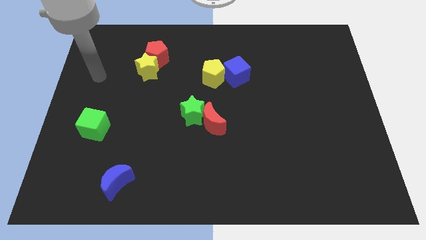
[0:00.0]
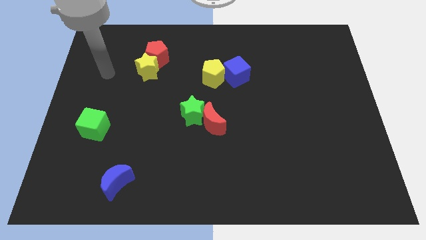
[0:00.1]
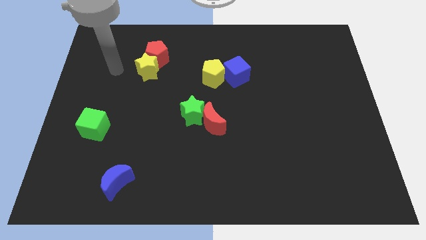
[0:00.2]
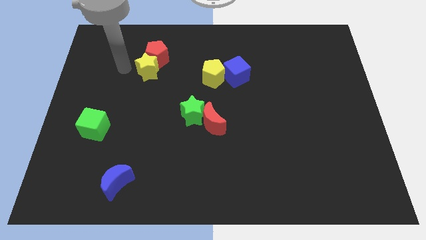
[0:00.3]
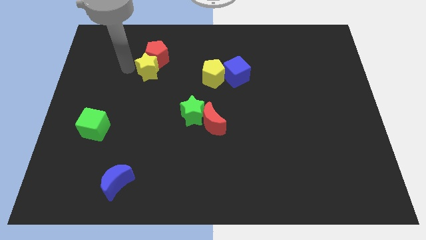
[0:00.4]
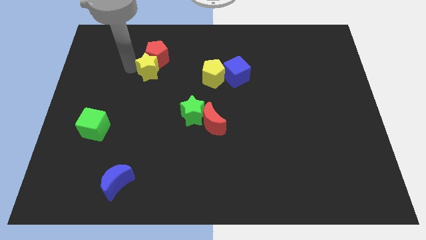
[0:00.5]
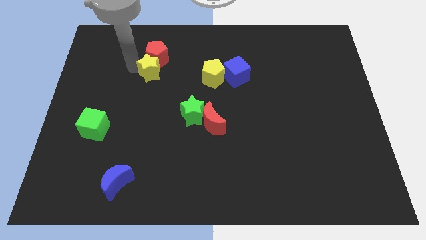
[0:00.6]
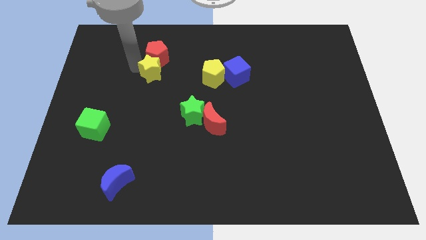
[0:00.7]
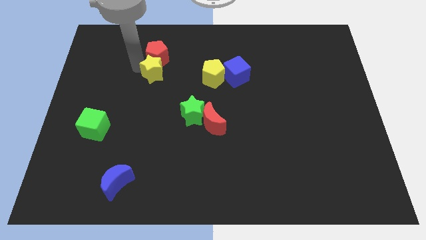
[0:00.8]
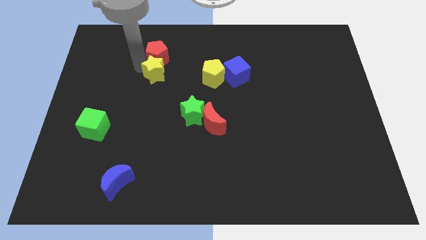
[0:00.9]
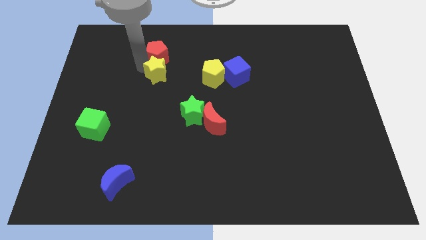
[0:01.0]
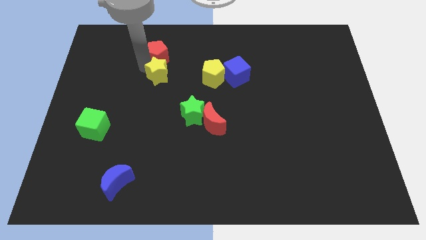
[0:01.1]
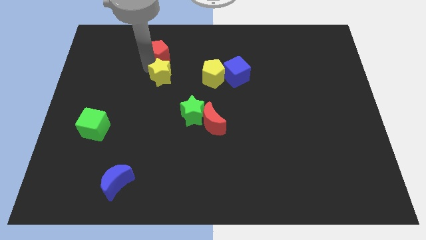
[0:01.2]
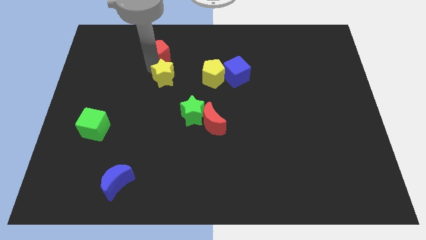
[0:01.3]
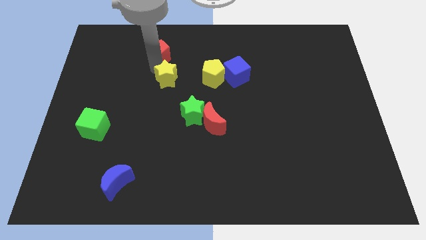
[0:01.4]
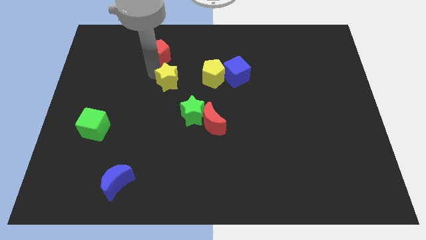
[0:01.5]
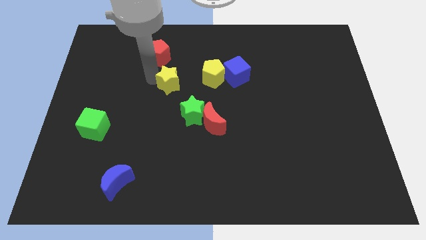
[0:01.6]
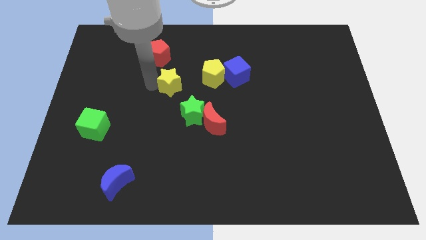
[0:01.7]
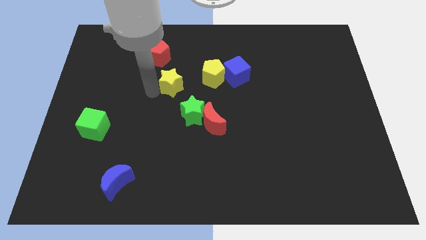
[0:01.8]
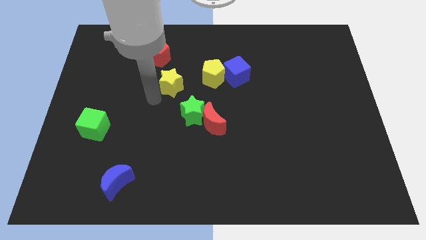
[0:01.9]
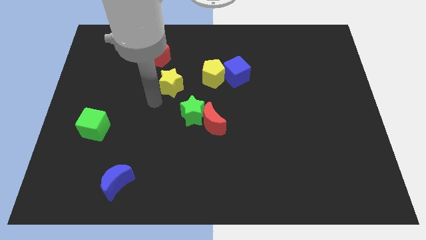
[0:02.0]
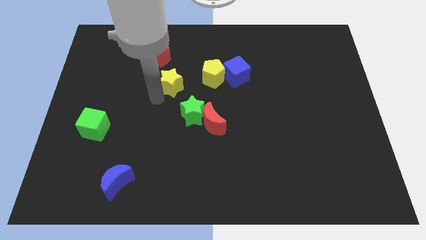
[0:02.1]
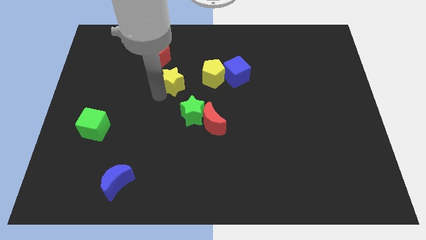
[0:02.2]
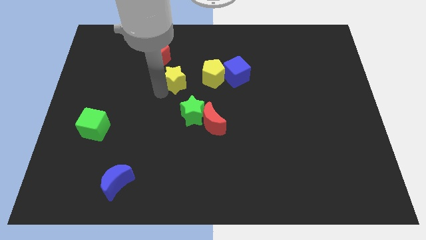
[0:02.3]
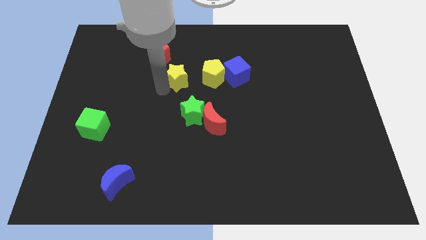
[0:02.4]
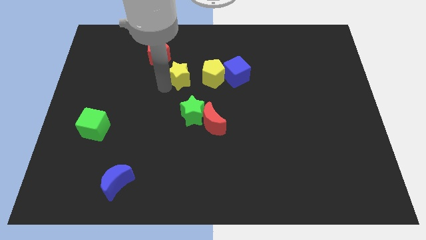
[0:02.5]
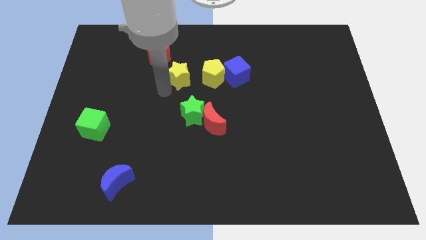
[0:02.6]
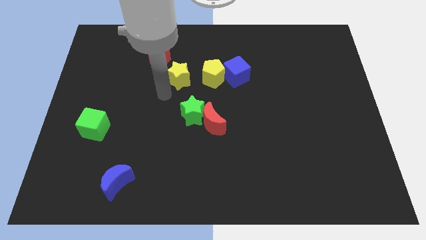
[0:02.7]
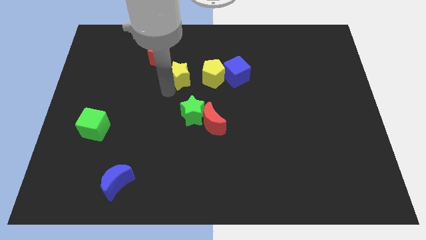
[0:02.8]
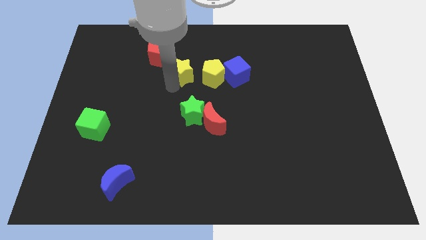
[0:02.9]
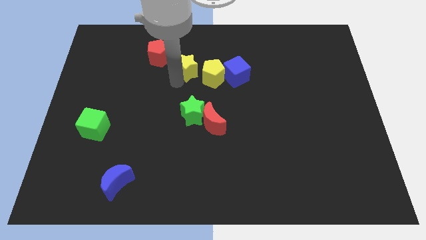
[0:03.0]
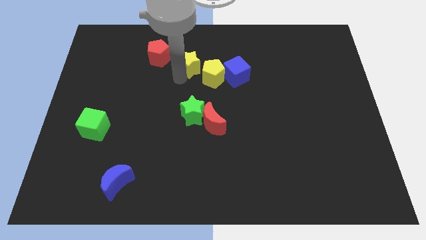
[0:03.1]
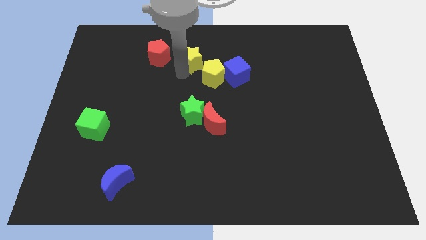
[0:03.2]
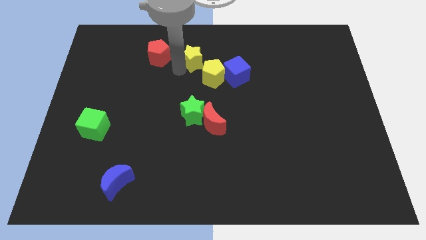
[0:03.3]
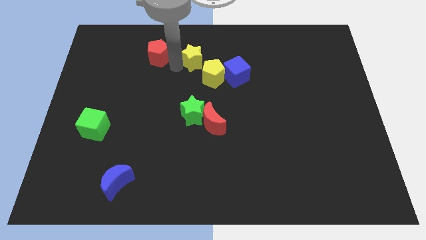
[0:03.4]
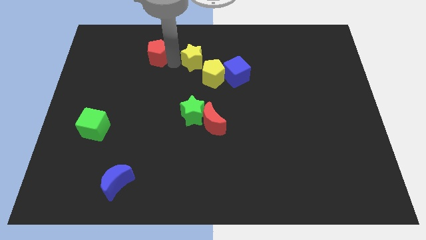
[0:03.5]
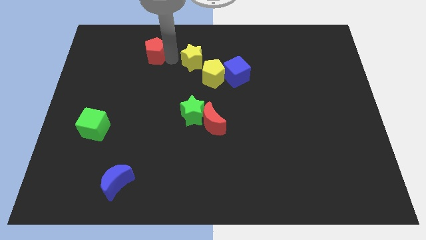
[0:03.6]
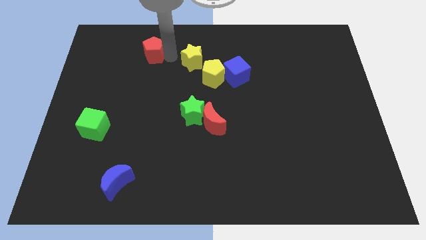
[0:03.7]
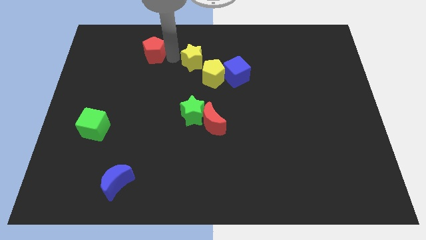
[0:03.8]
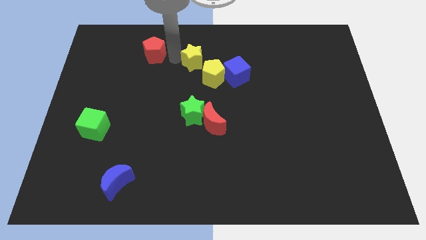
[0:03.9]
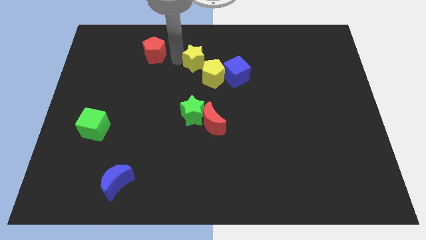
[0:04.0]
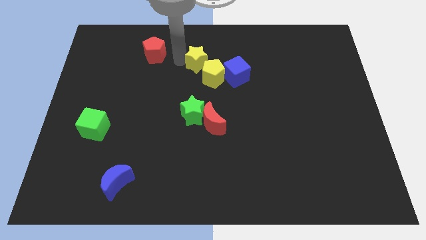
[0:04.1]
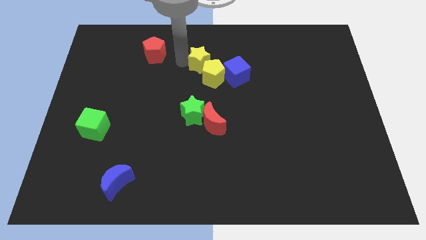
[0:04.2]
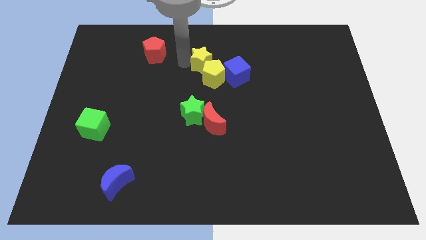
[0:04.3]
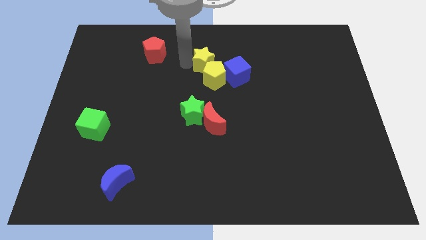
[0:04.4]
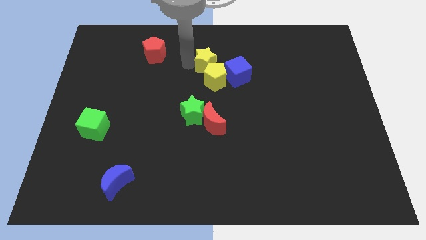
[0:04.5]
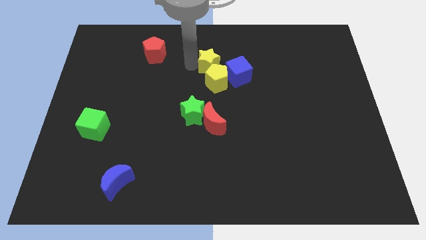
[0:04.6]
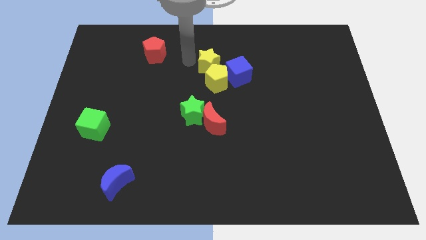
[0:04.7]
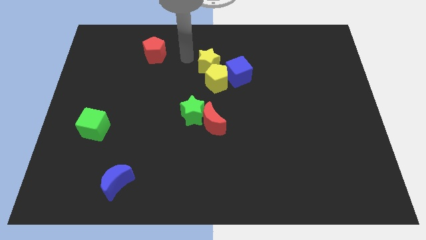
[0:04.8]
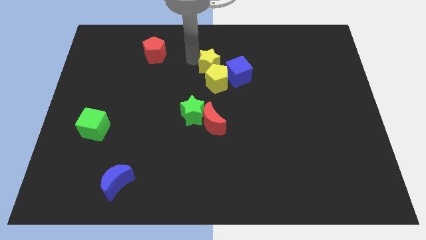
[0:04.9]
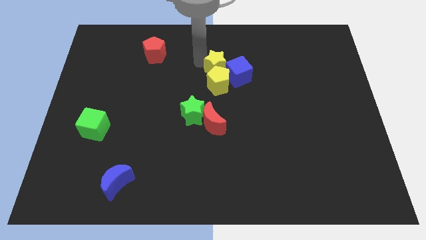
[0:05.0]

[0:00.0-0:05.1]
slide the yellow star close to the blue cube

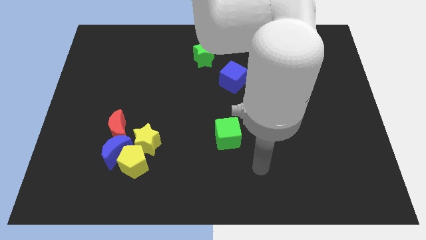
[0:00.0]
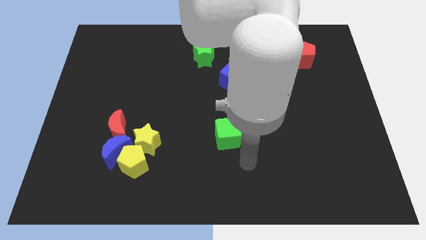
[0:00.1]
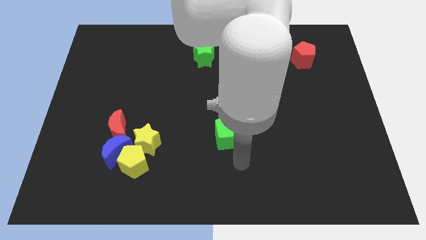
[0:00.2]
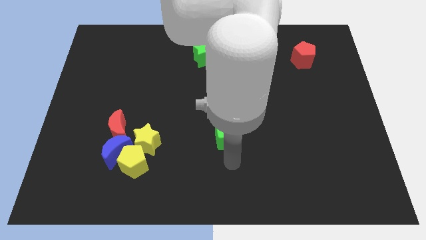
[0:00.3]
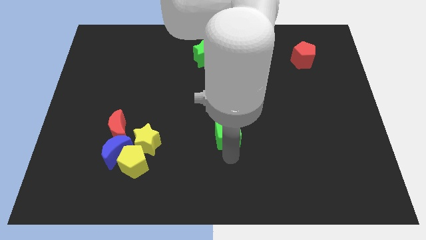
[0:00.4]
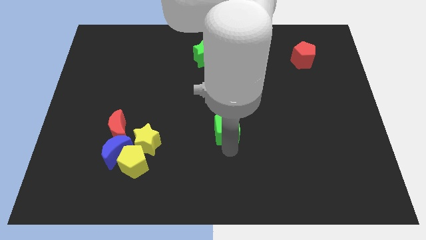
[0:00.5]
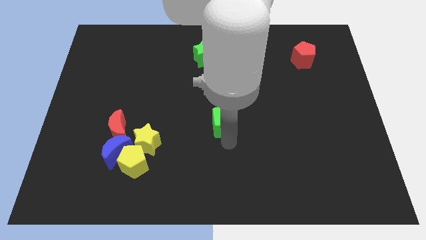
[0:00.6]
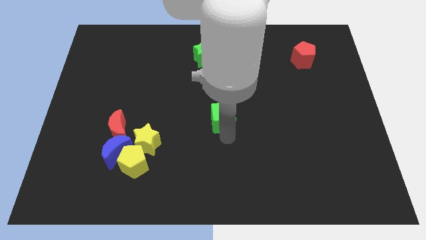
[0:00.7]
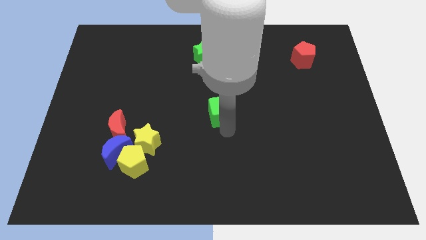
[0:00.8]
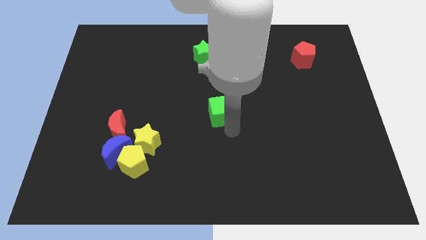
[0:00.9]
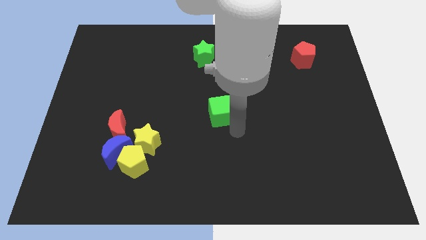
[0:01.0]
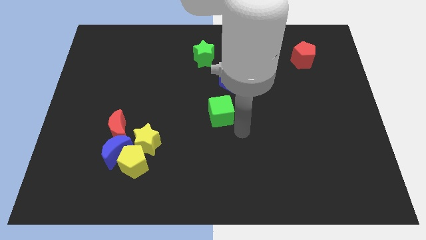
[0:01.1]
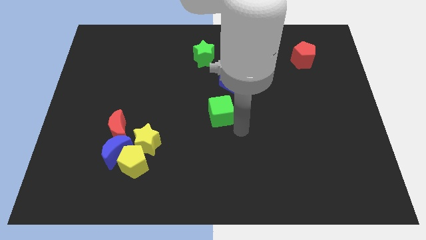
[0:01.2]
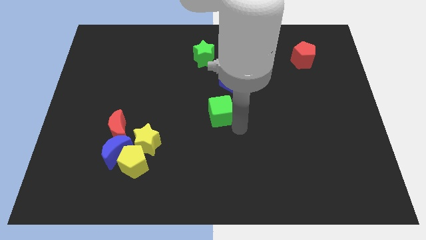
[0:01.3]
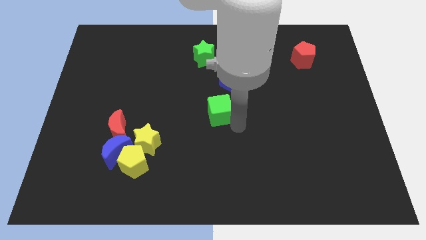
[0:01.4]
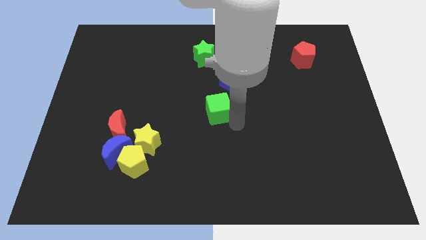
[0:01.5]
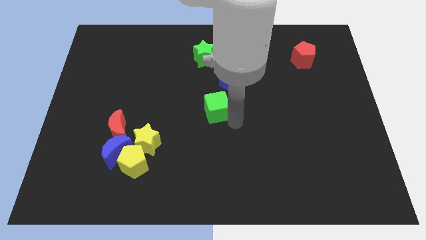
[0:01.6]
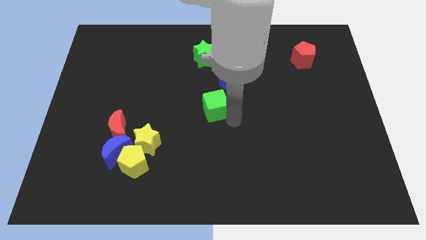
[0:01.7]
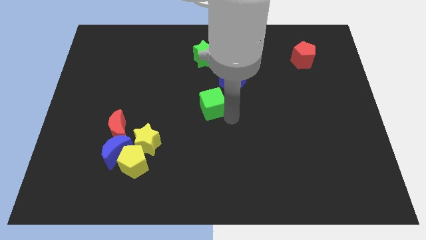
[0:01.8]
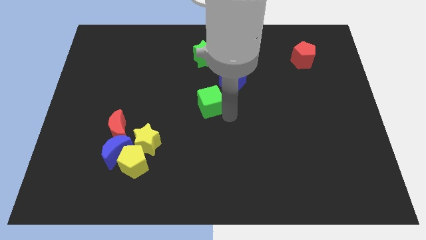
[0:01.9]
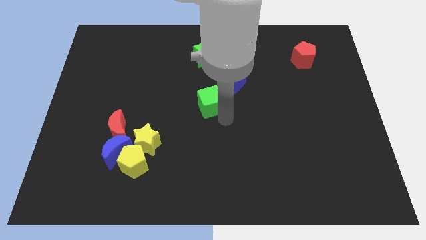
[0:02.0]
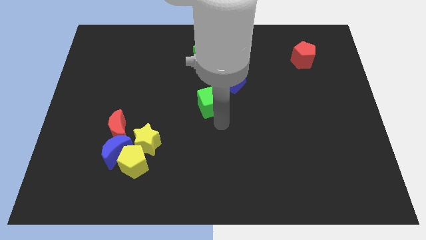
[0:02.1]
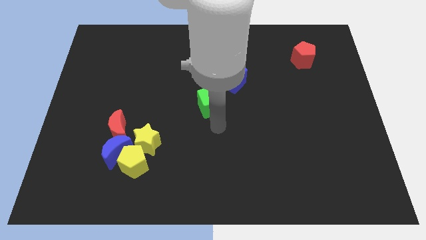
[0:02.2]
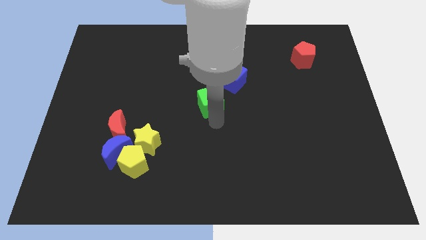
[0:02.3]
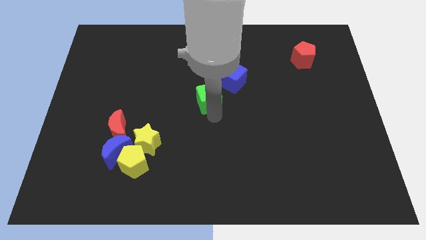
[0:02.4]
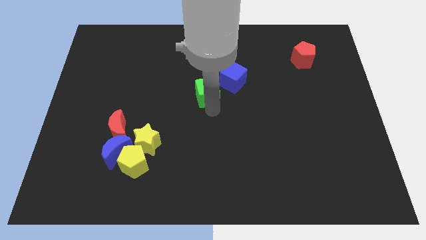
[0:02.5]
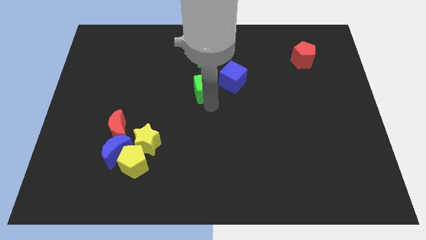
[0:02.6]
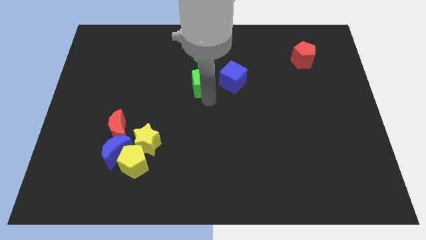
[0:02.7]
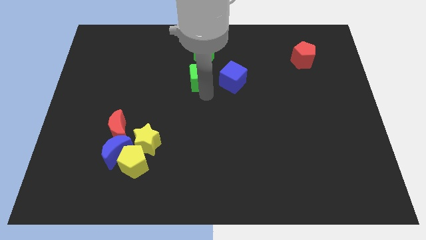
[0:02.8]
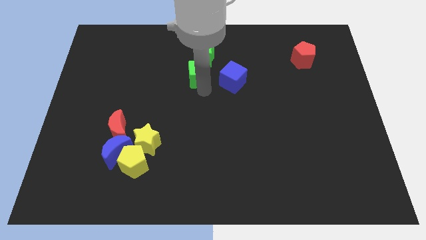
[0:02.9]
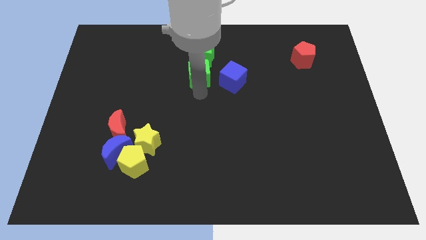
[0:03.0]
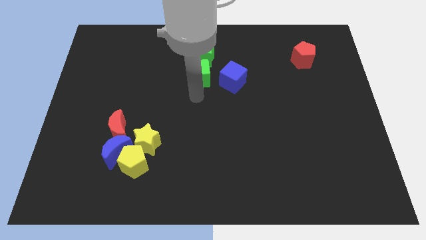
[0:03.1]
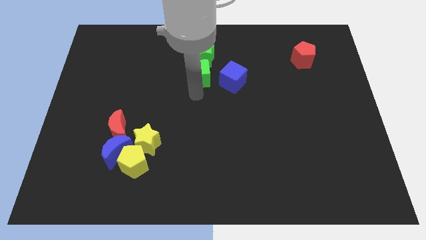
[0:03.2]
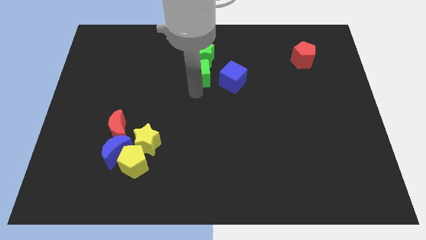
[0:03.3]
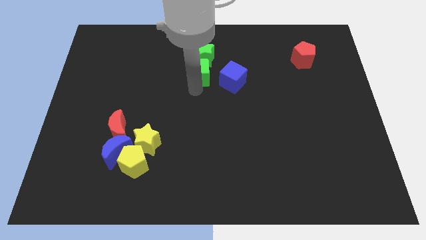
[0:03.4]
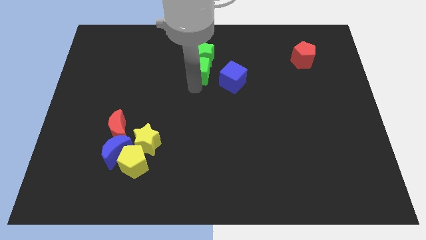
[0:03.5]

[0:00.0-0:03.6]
push the green cube next to the green star
